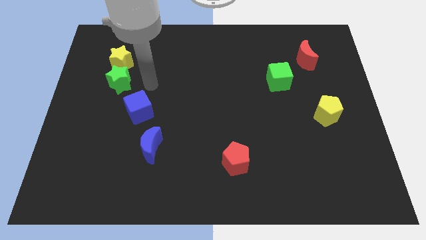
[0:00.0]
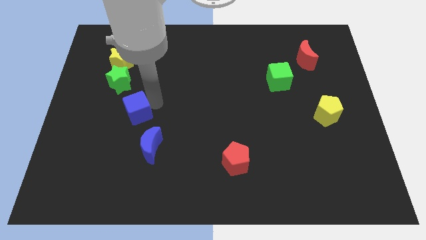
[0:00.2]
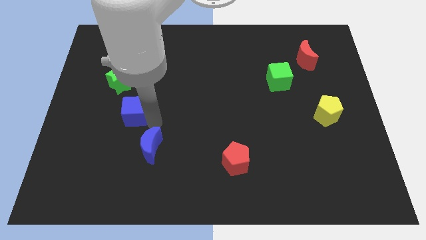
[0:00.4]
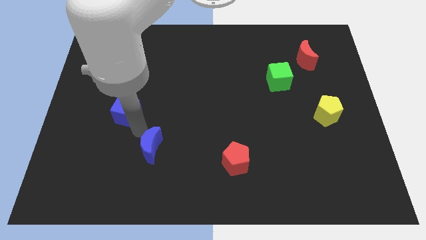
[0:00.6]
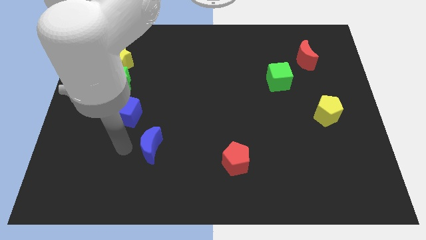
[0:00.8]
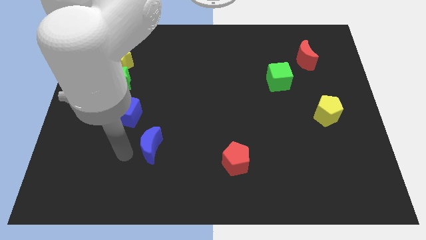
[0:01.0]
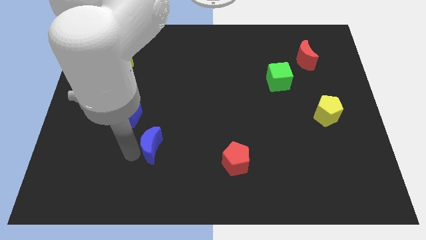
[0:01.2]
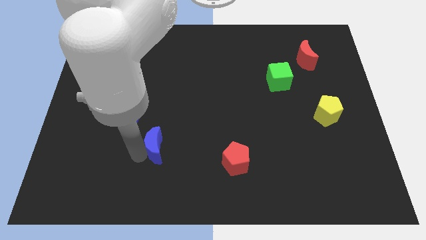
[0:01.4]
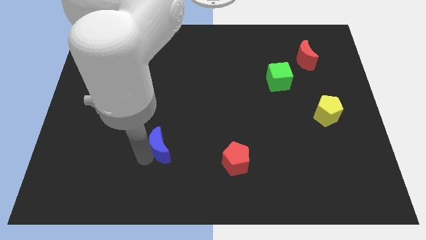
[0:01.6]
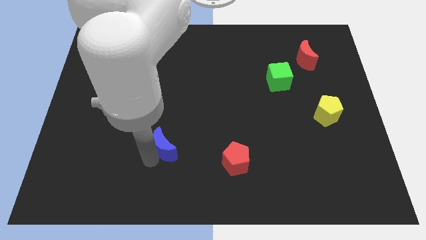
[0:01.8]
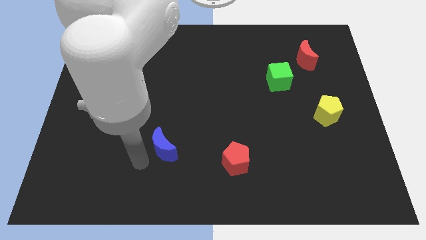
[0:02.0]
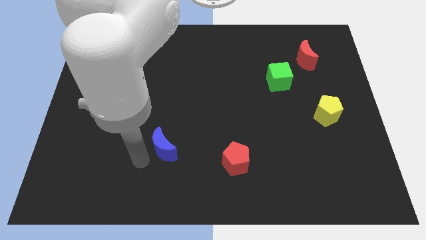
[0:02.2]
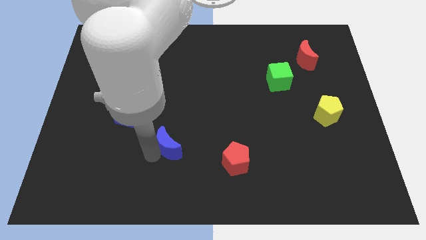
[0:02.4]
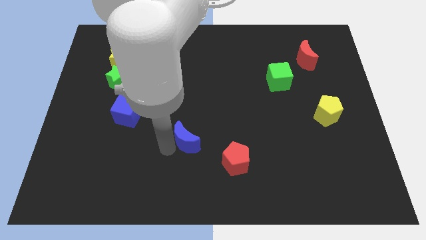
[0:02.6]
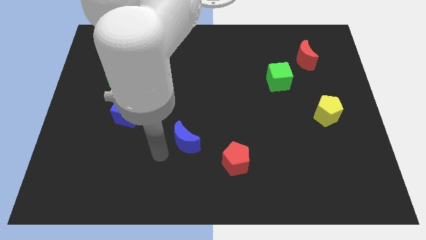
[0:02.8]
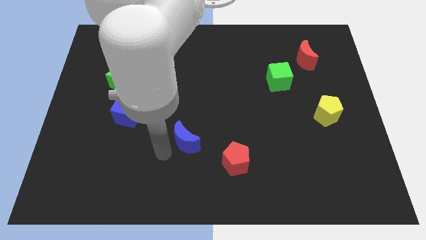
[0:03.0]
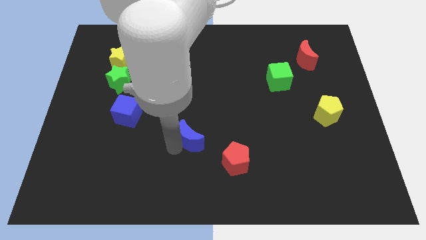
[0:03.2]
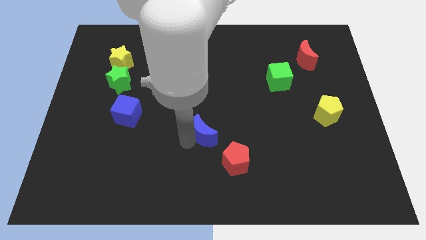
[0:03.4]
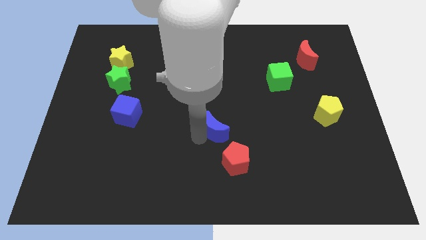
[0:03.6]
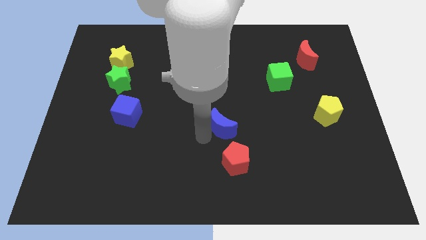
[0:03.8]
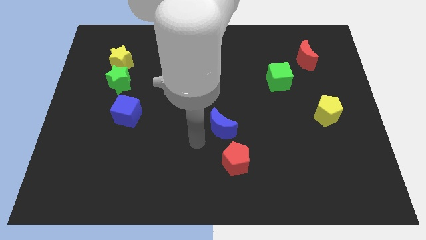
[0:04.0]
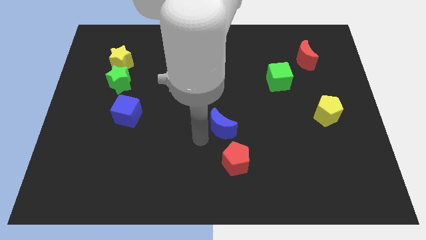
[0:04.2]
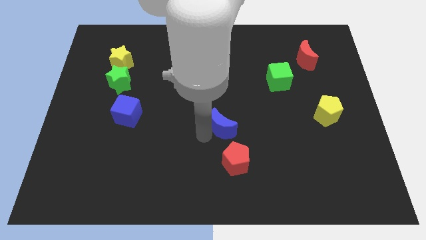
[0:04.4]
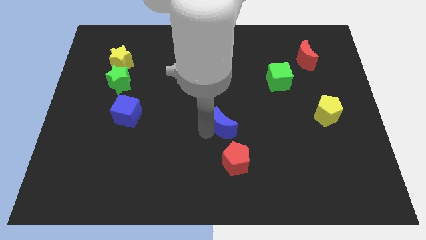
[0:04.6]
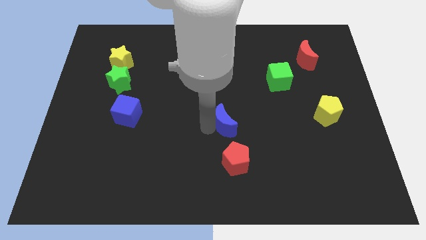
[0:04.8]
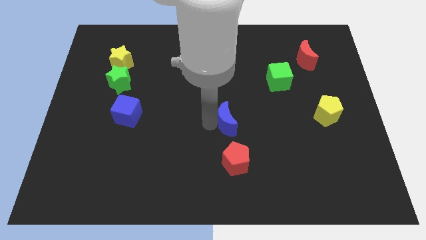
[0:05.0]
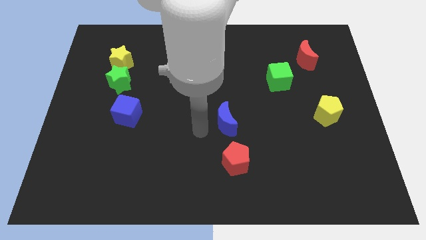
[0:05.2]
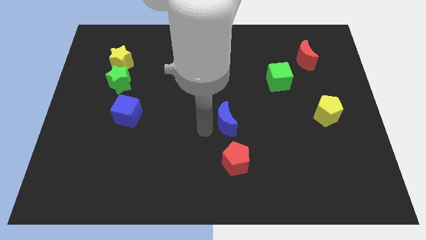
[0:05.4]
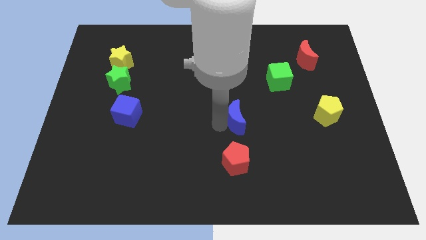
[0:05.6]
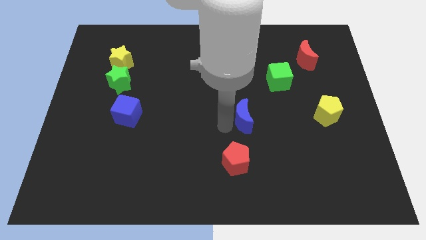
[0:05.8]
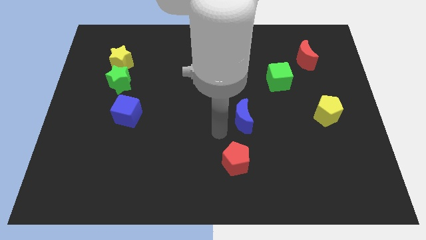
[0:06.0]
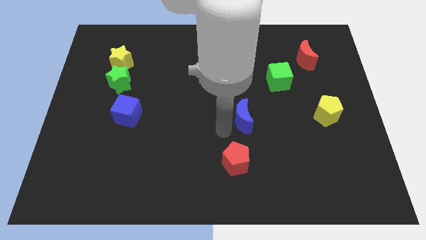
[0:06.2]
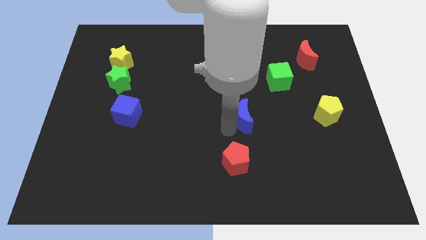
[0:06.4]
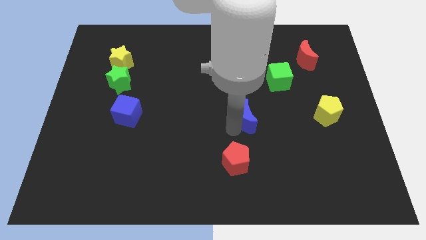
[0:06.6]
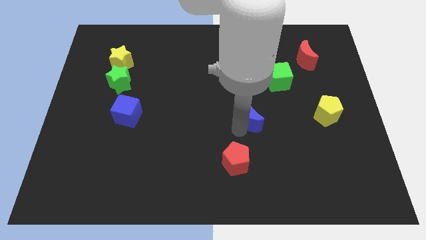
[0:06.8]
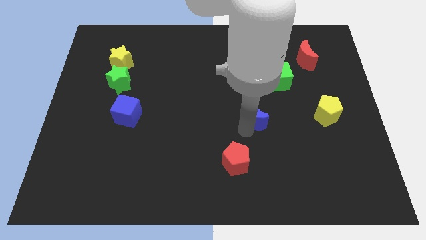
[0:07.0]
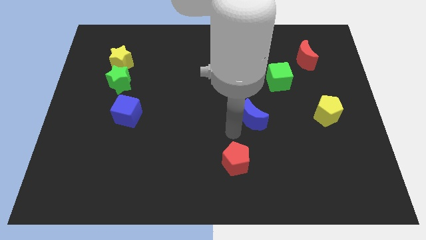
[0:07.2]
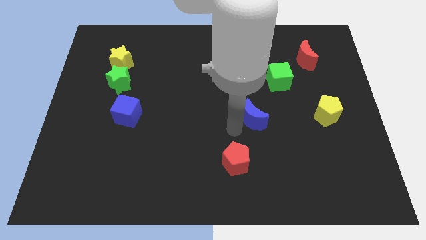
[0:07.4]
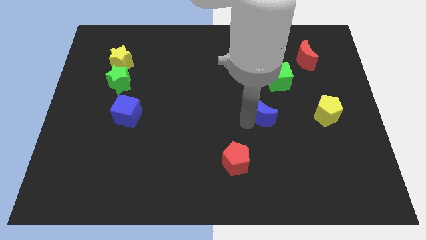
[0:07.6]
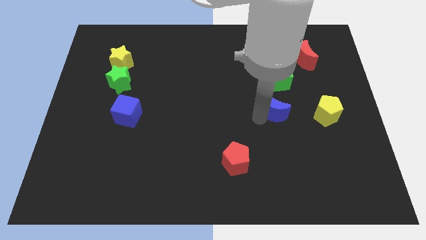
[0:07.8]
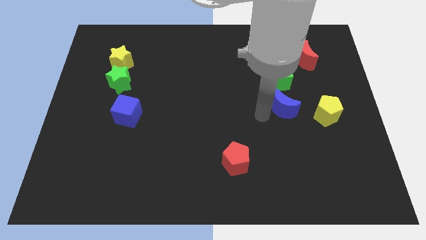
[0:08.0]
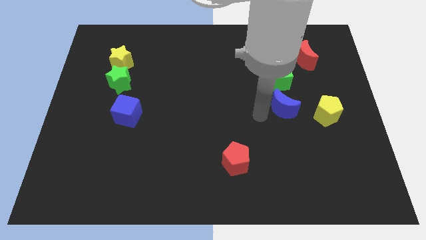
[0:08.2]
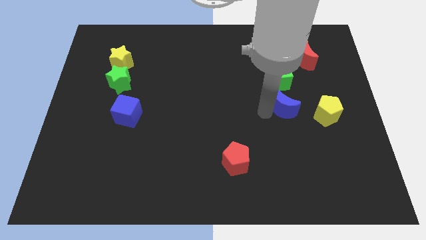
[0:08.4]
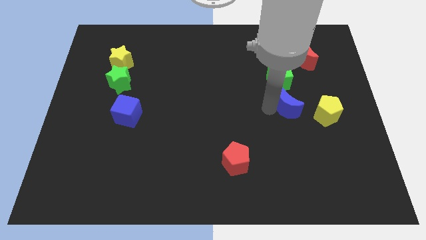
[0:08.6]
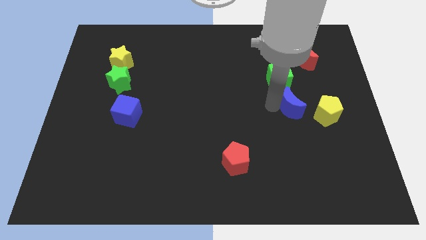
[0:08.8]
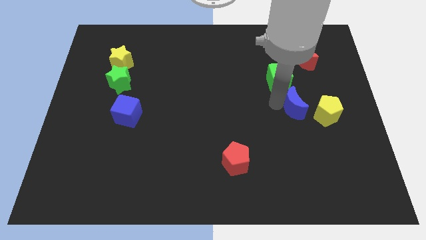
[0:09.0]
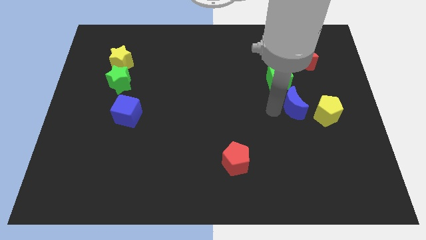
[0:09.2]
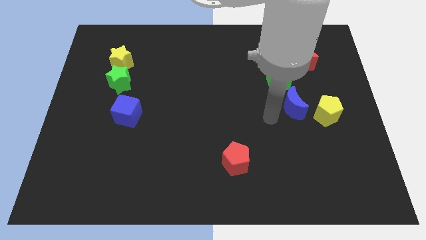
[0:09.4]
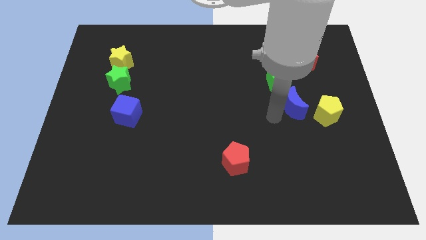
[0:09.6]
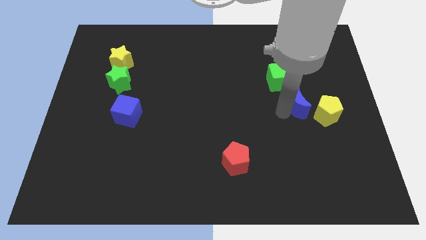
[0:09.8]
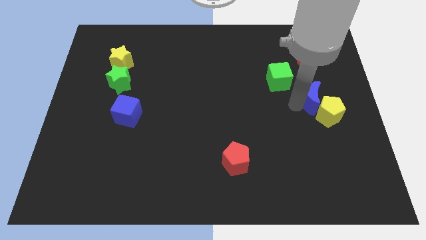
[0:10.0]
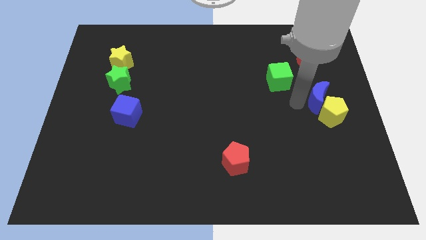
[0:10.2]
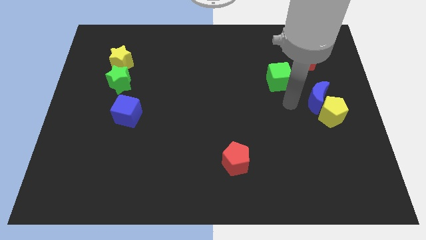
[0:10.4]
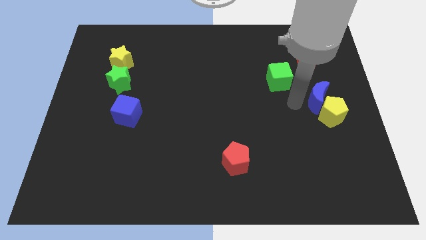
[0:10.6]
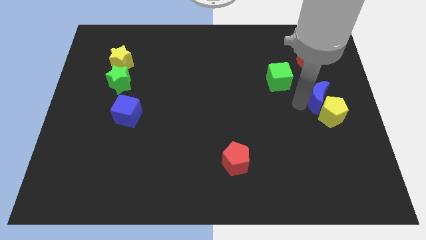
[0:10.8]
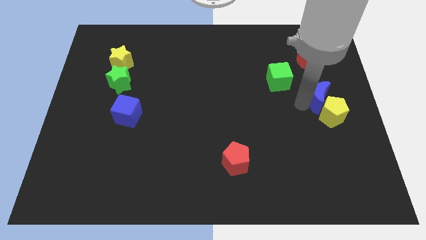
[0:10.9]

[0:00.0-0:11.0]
put the blue moon to the center right

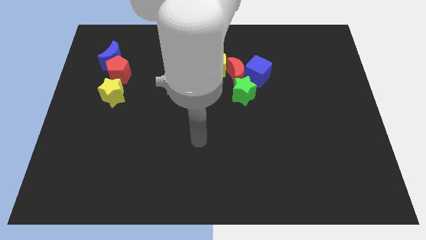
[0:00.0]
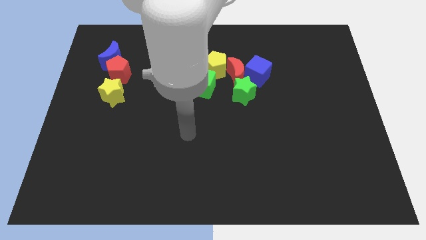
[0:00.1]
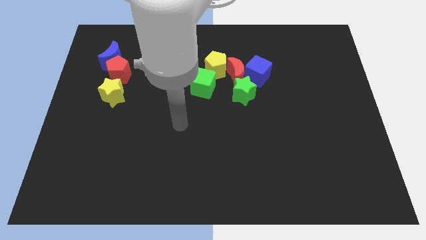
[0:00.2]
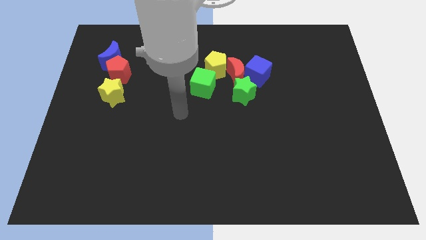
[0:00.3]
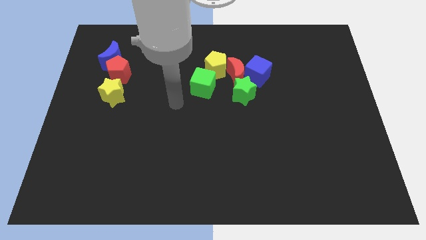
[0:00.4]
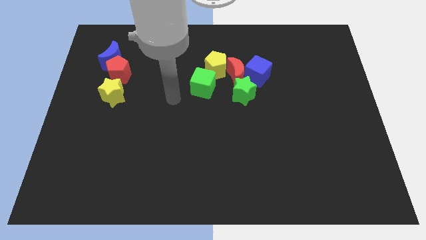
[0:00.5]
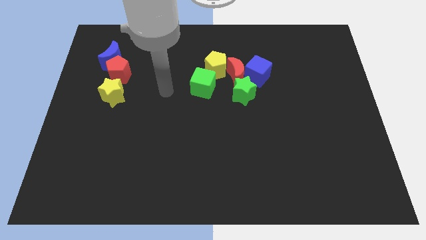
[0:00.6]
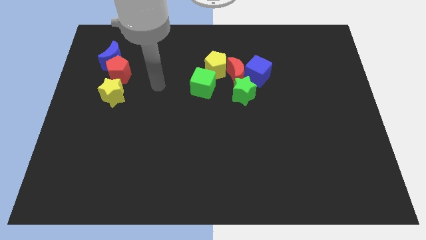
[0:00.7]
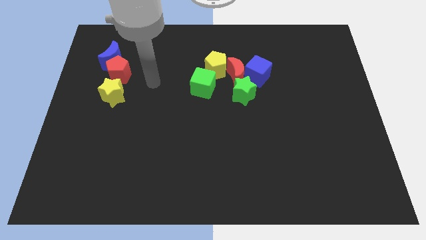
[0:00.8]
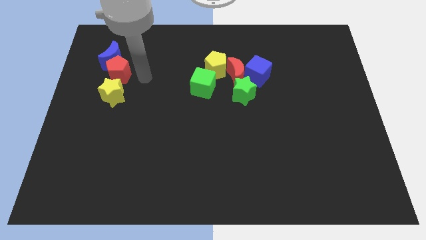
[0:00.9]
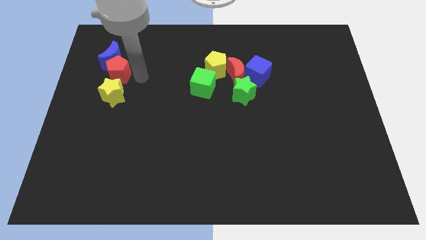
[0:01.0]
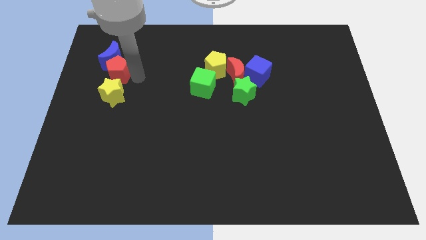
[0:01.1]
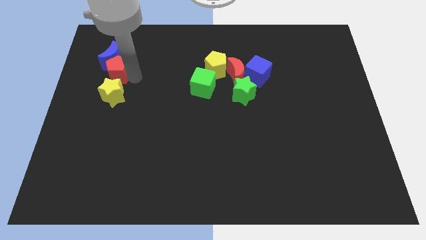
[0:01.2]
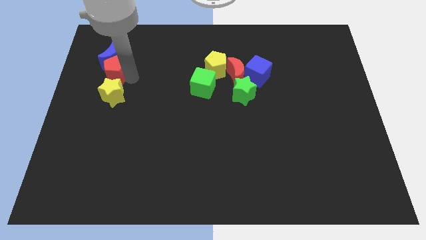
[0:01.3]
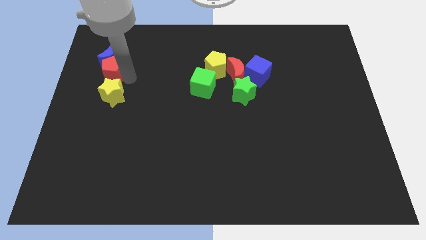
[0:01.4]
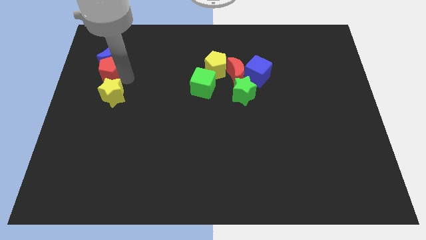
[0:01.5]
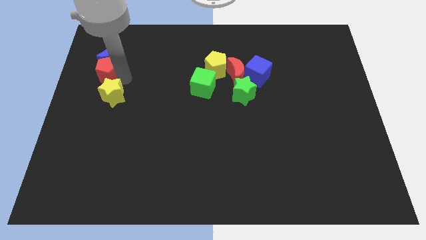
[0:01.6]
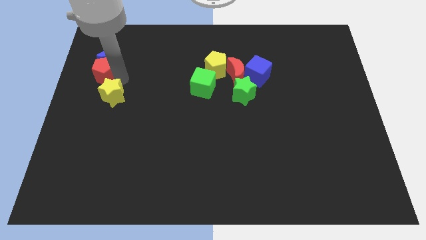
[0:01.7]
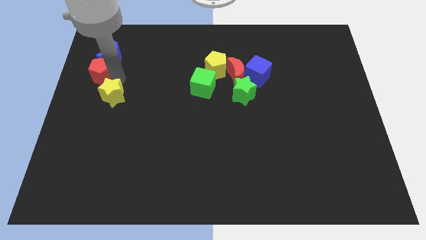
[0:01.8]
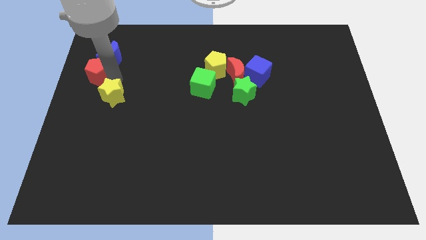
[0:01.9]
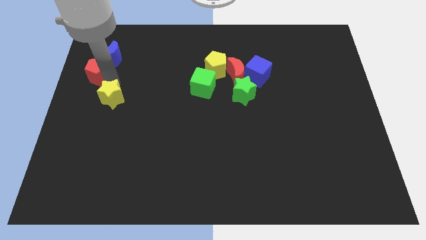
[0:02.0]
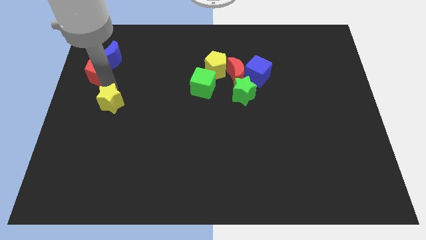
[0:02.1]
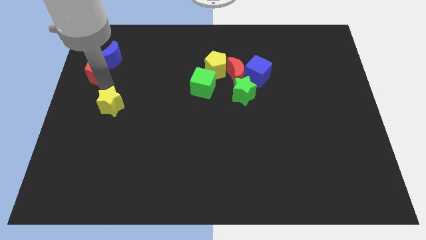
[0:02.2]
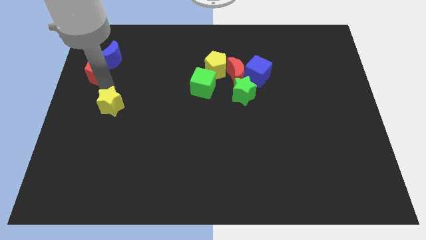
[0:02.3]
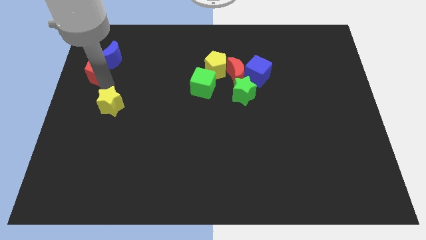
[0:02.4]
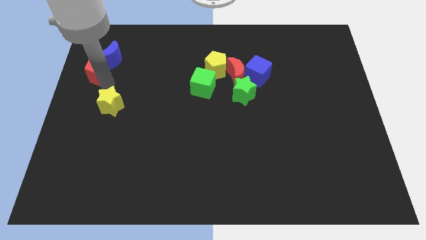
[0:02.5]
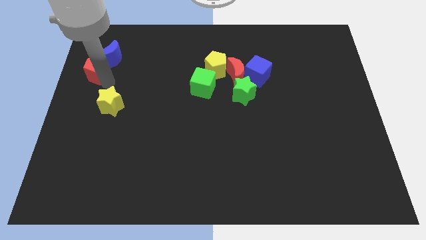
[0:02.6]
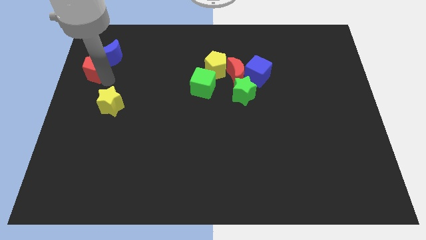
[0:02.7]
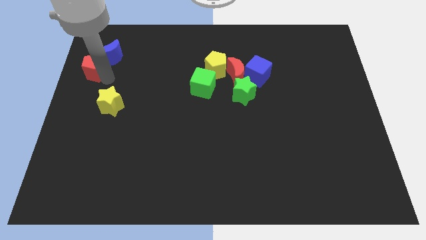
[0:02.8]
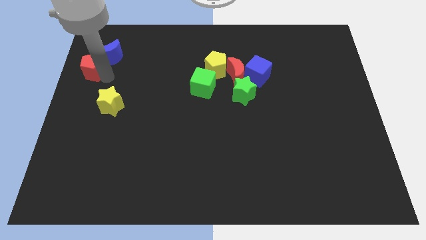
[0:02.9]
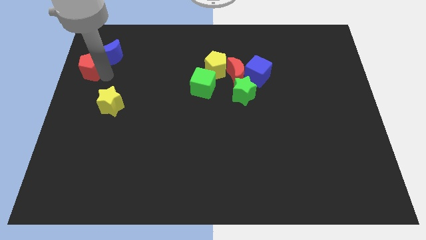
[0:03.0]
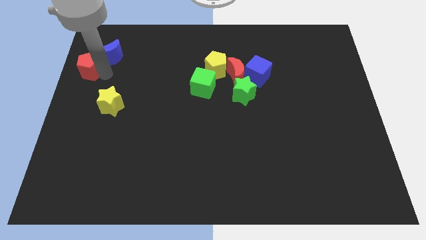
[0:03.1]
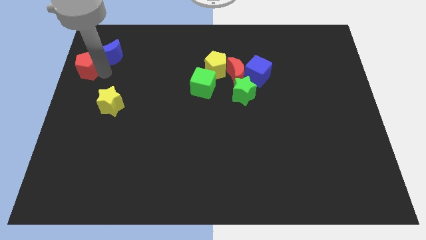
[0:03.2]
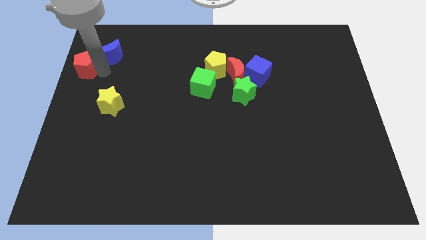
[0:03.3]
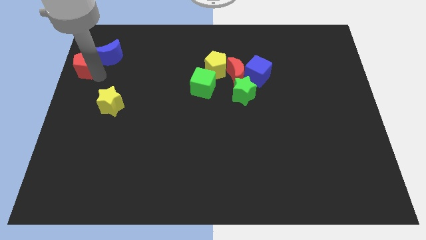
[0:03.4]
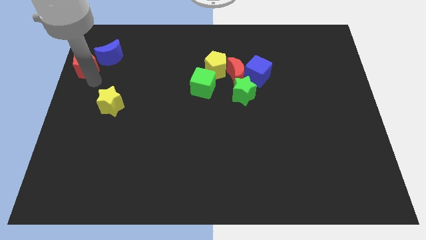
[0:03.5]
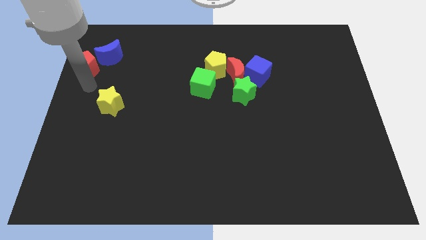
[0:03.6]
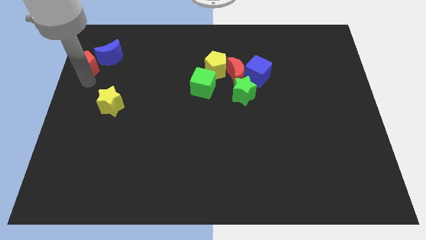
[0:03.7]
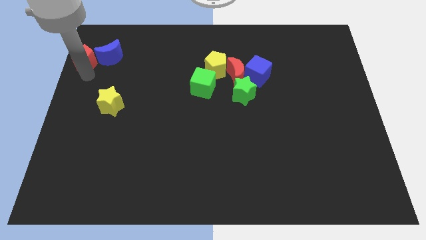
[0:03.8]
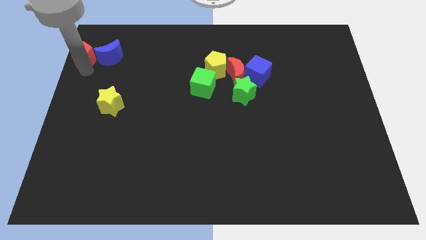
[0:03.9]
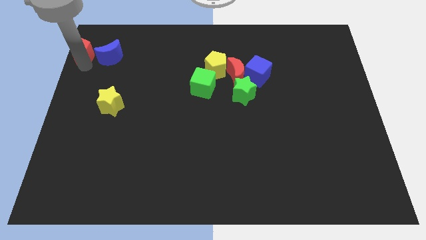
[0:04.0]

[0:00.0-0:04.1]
slide the red pentagon to the top left
